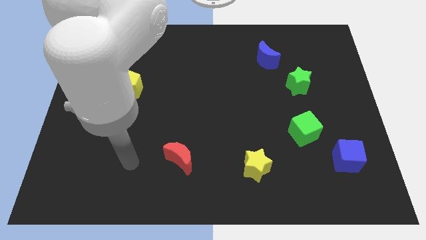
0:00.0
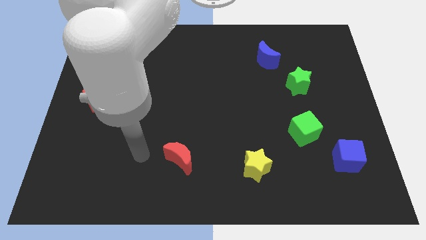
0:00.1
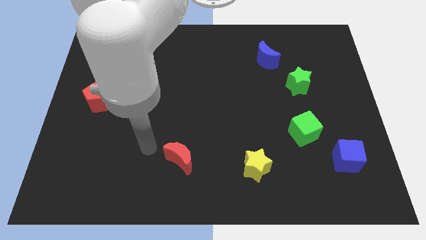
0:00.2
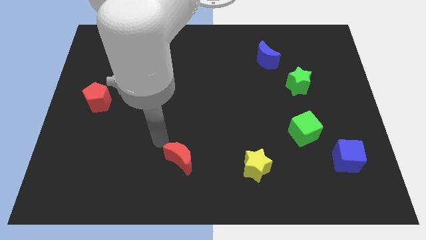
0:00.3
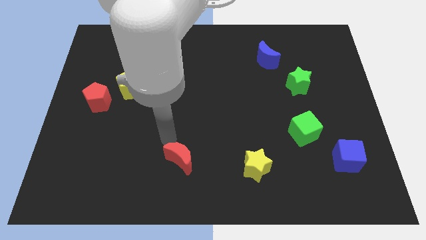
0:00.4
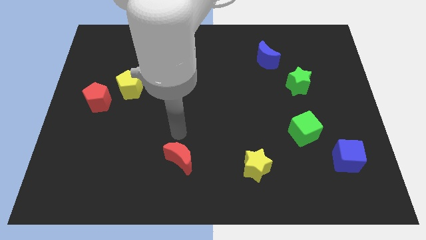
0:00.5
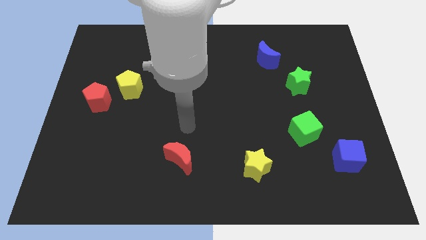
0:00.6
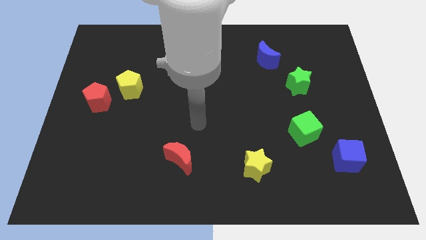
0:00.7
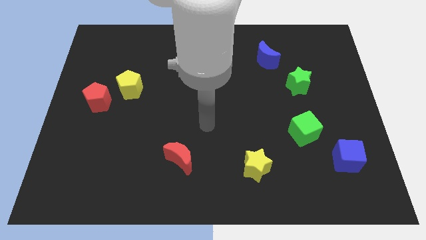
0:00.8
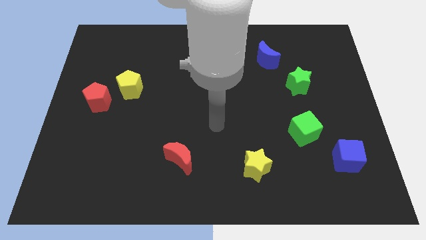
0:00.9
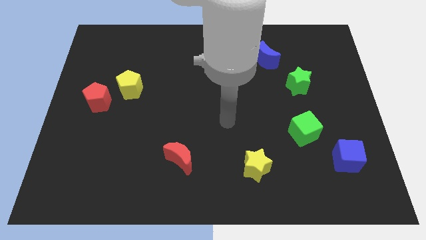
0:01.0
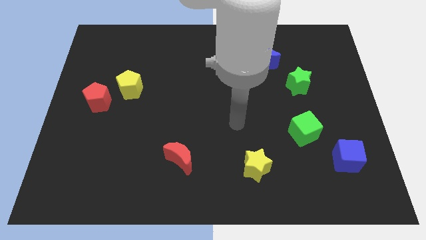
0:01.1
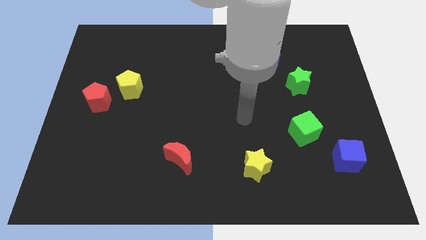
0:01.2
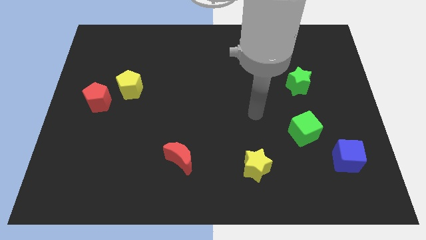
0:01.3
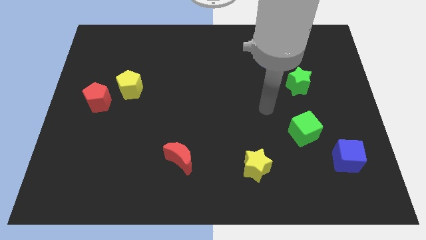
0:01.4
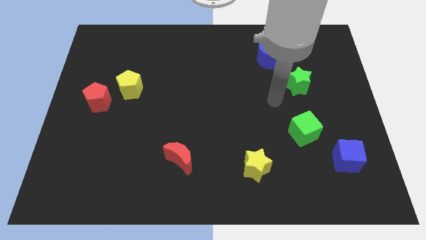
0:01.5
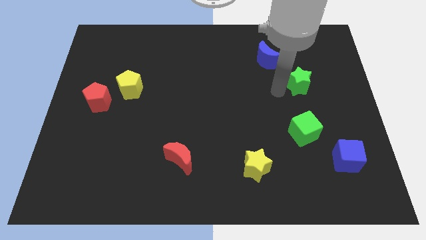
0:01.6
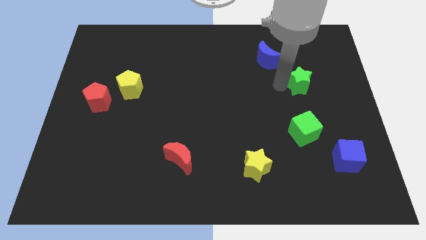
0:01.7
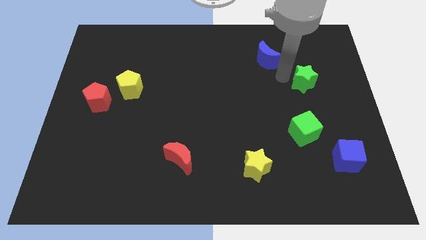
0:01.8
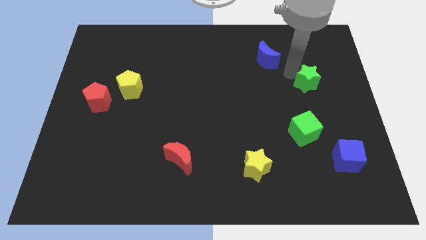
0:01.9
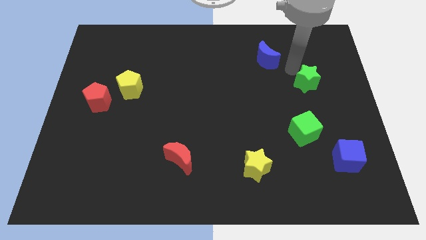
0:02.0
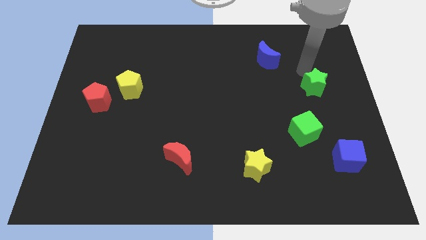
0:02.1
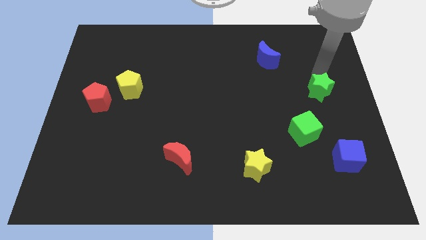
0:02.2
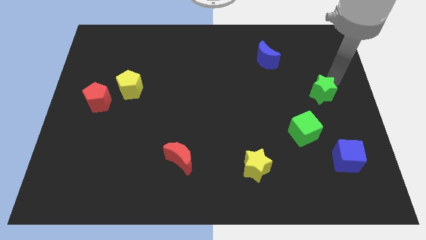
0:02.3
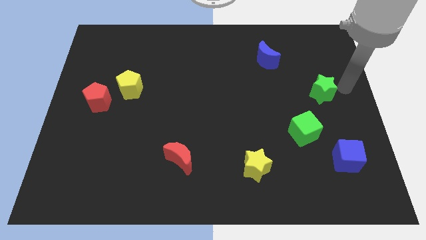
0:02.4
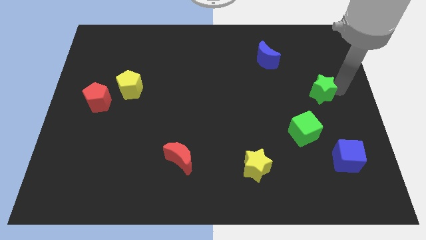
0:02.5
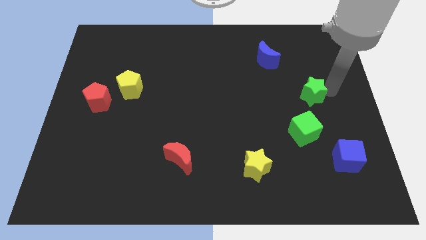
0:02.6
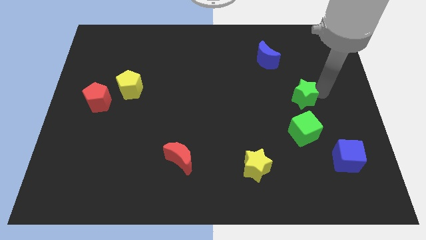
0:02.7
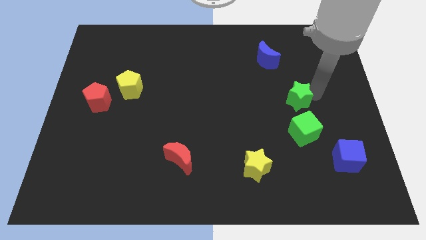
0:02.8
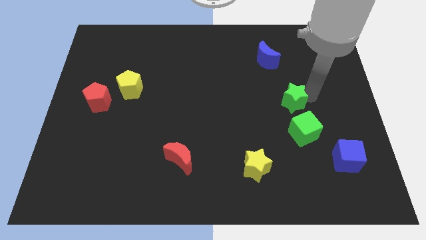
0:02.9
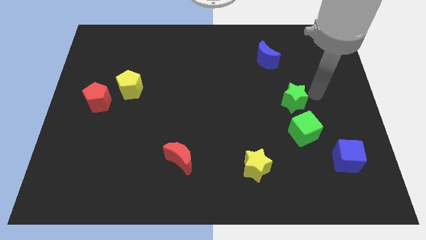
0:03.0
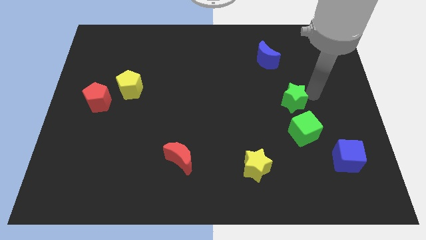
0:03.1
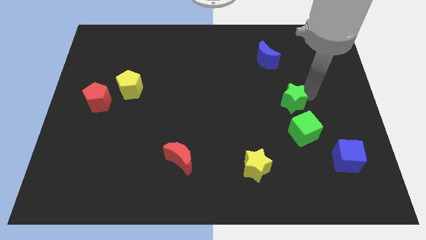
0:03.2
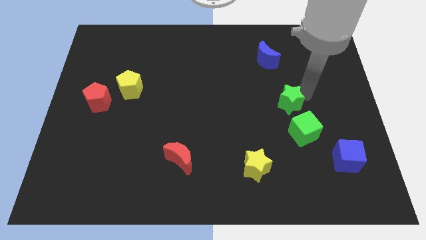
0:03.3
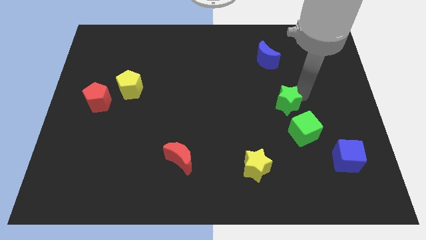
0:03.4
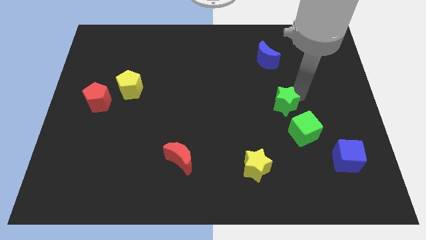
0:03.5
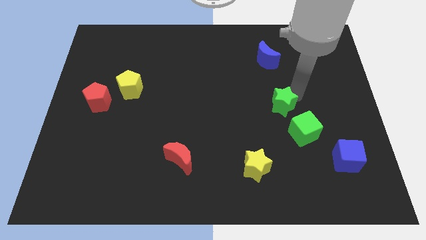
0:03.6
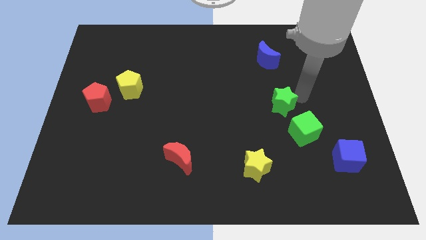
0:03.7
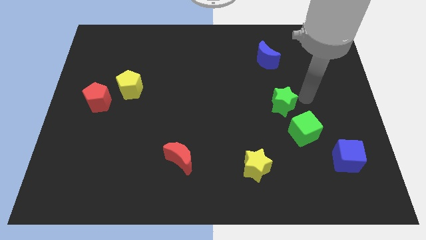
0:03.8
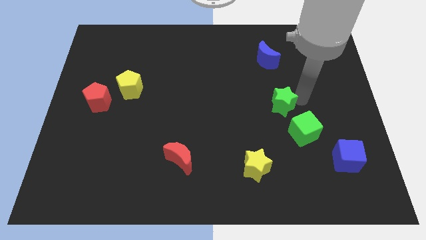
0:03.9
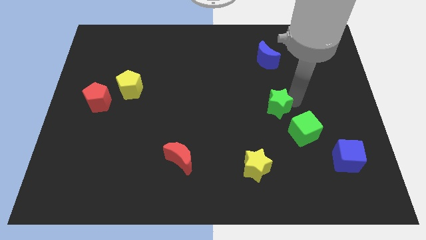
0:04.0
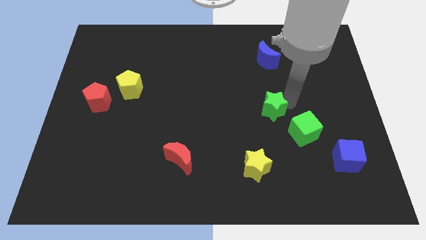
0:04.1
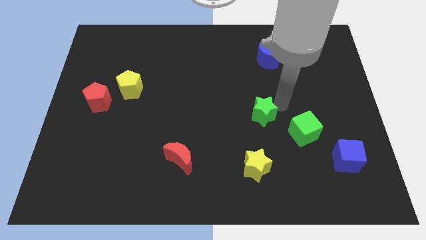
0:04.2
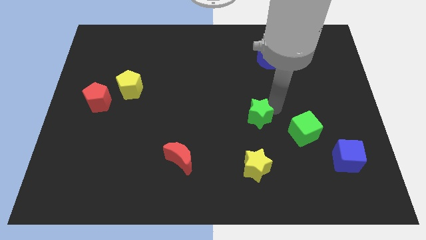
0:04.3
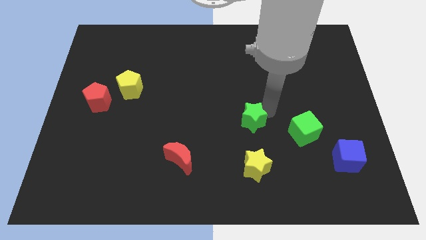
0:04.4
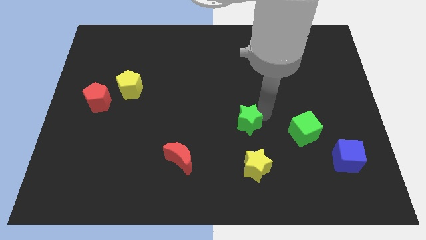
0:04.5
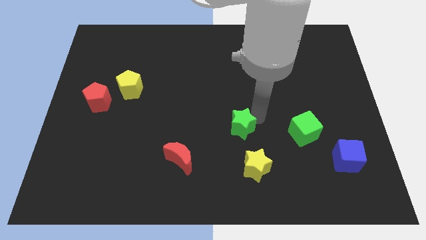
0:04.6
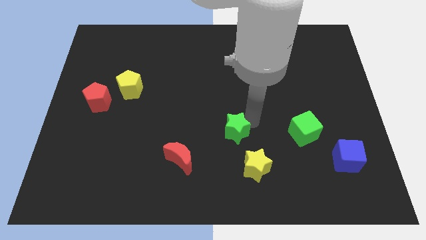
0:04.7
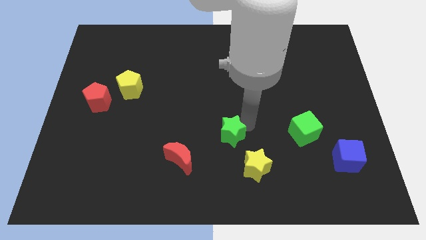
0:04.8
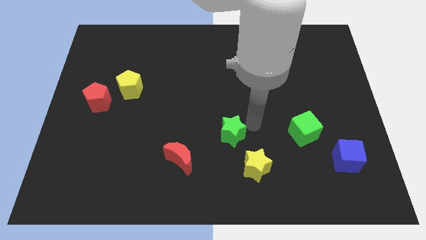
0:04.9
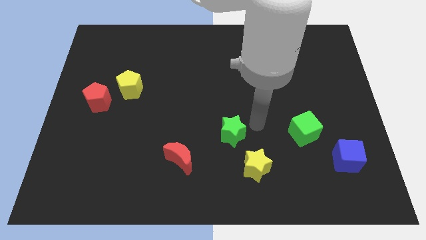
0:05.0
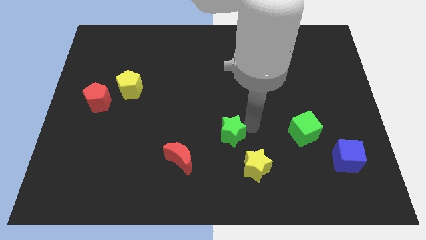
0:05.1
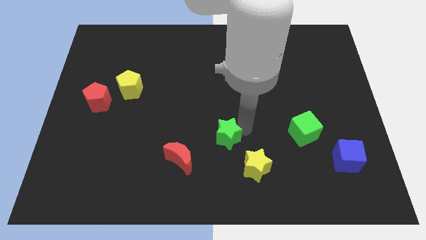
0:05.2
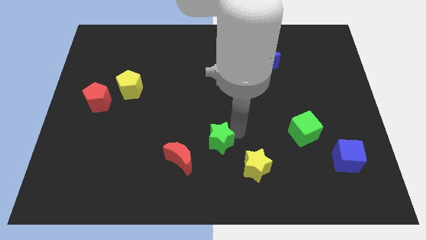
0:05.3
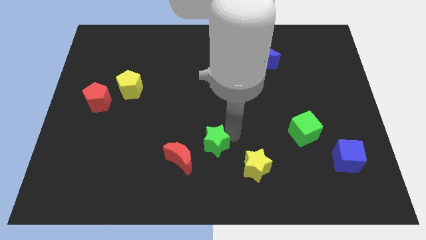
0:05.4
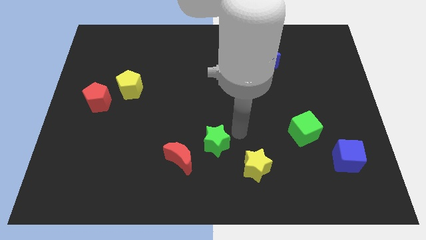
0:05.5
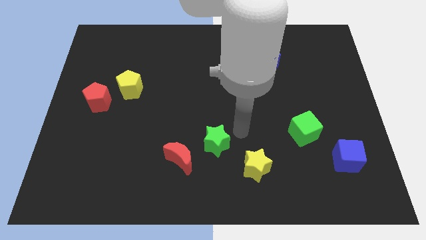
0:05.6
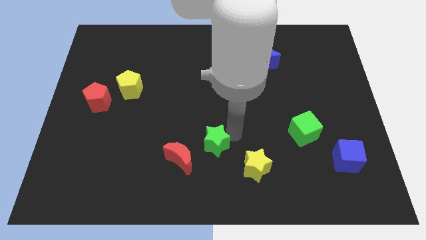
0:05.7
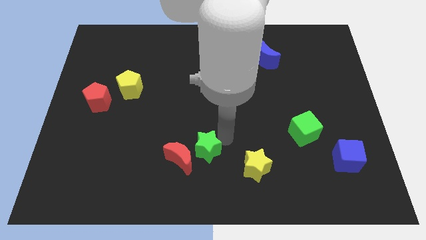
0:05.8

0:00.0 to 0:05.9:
slide the green star close to the red moon

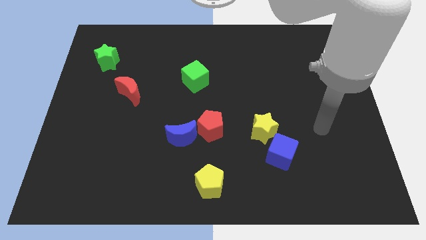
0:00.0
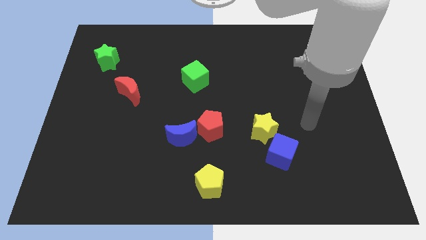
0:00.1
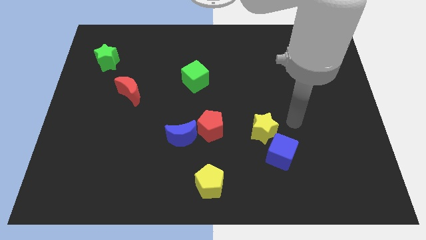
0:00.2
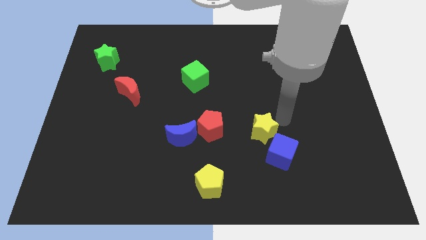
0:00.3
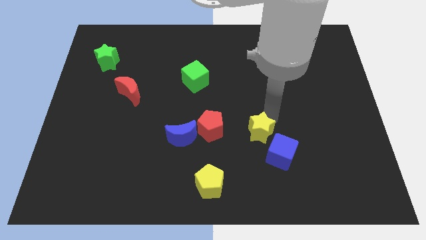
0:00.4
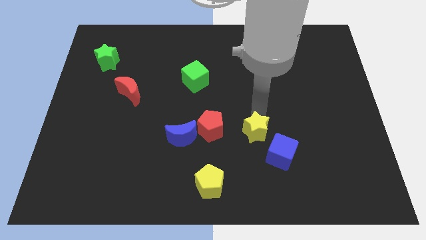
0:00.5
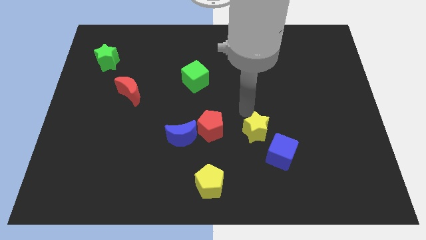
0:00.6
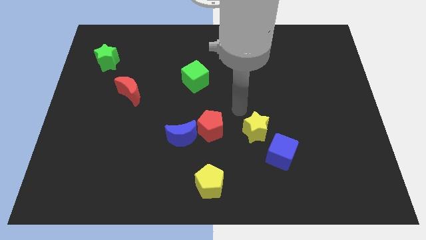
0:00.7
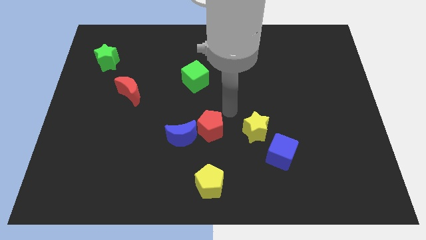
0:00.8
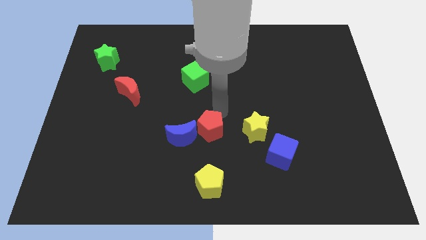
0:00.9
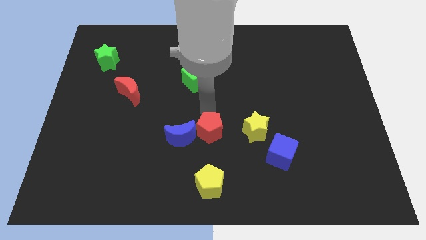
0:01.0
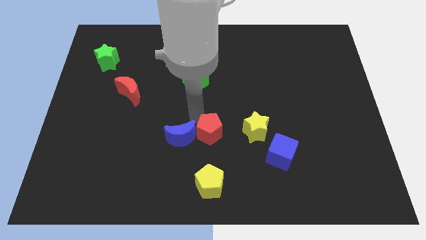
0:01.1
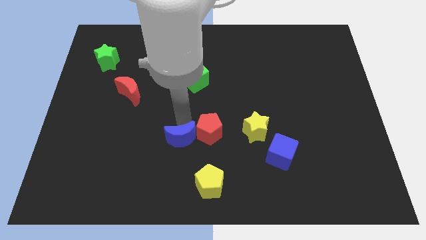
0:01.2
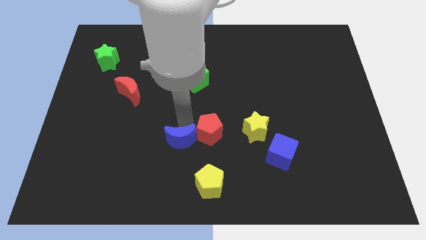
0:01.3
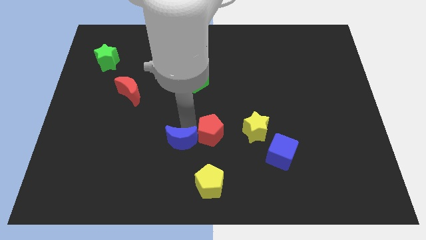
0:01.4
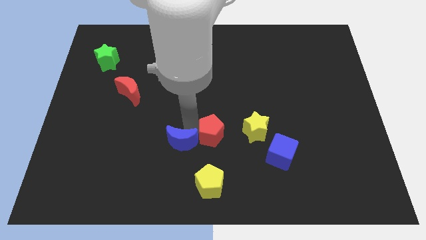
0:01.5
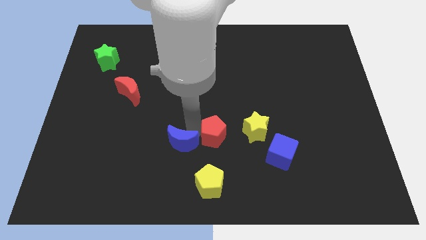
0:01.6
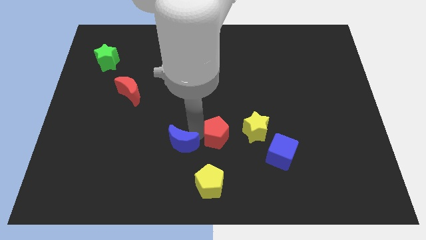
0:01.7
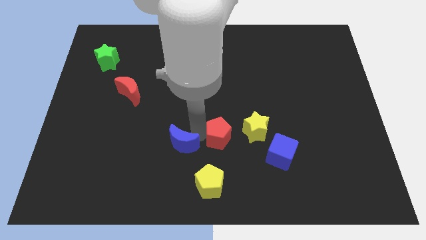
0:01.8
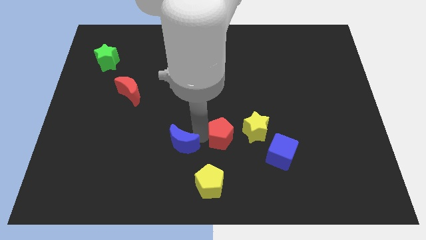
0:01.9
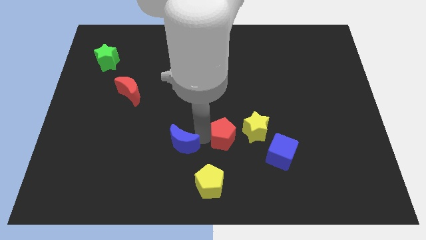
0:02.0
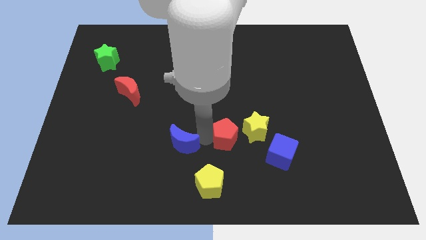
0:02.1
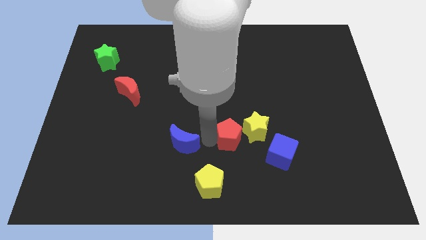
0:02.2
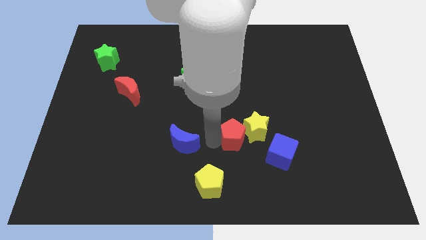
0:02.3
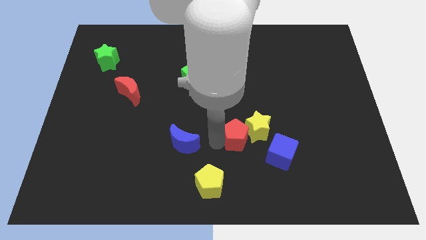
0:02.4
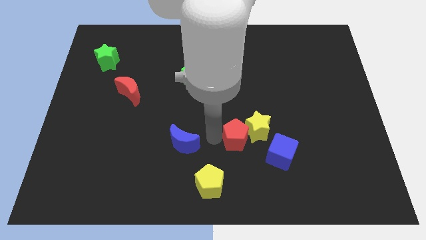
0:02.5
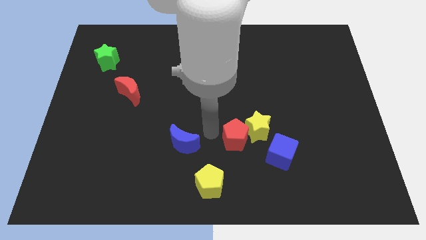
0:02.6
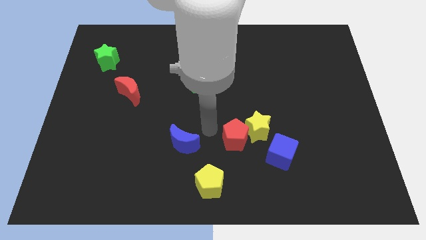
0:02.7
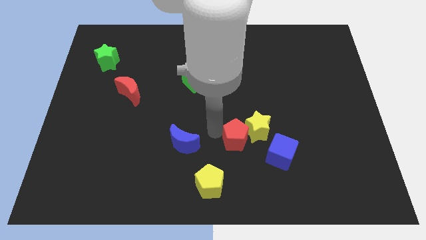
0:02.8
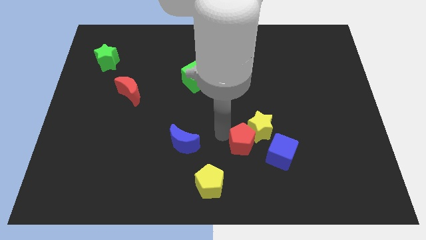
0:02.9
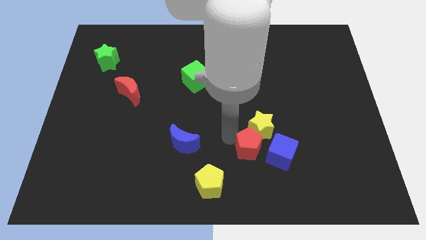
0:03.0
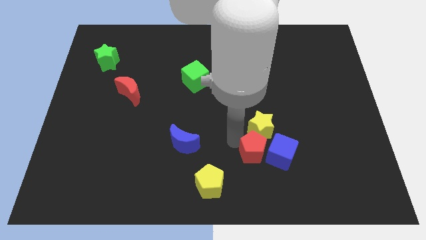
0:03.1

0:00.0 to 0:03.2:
put the red pentagon close to the blue cube
